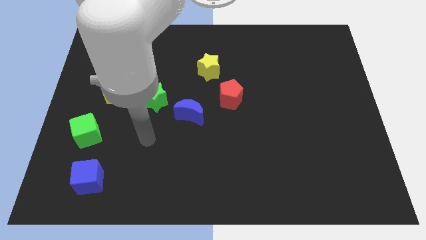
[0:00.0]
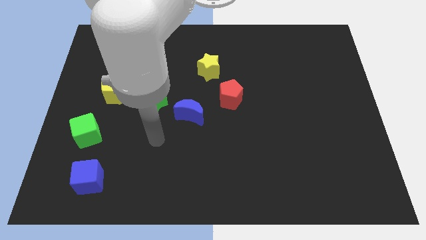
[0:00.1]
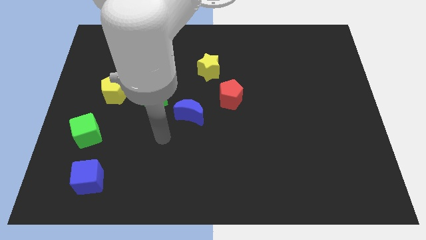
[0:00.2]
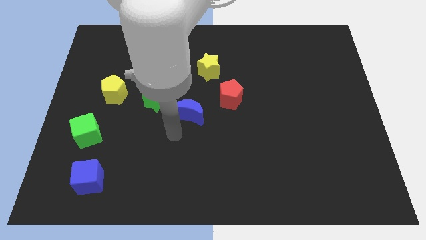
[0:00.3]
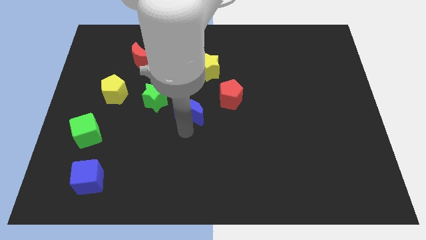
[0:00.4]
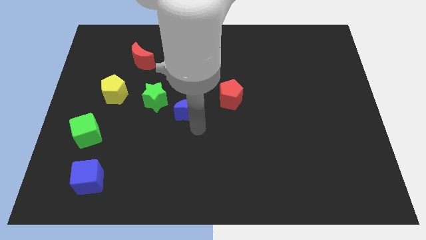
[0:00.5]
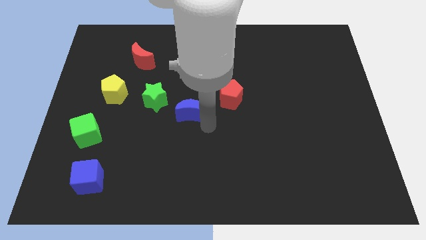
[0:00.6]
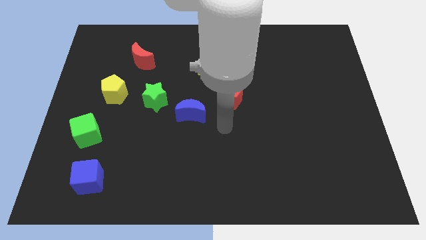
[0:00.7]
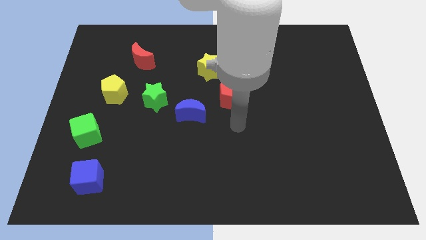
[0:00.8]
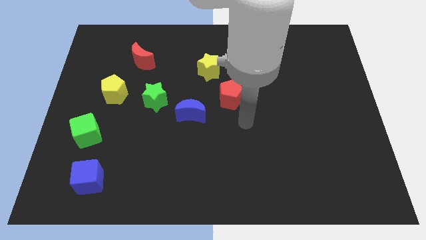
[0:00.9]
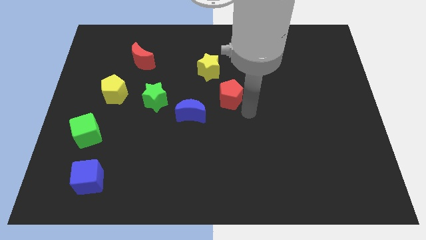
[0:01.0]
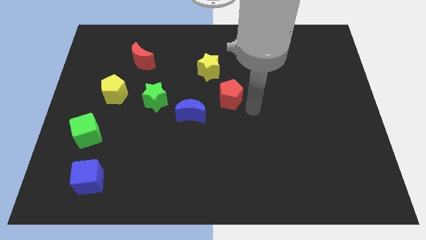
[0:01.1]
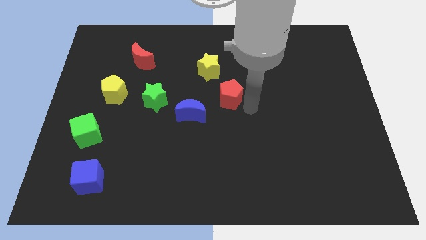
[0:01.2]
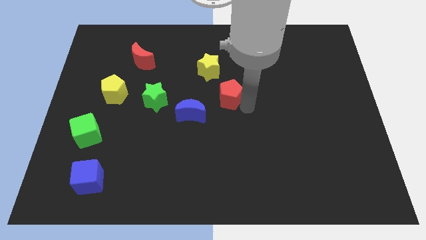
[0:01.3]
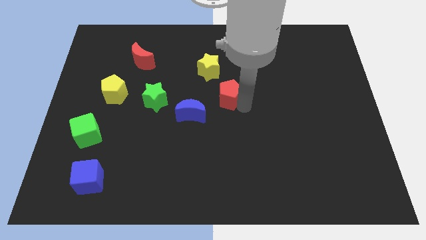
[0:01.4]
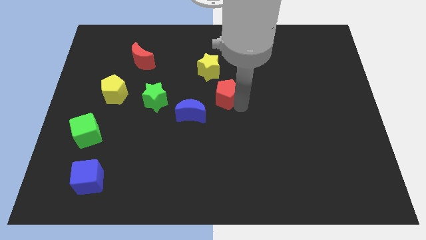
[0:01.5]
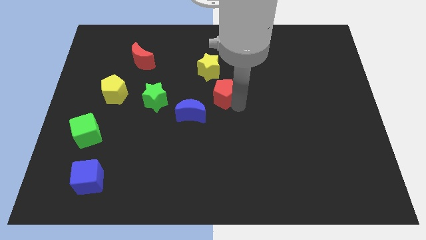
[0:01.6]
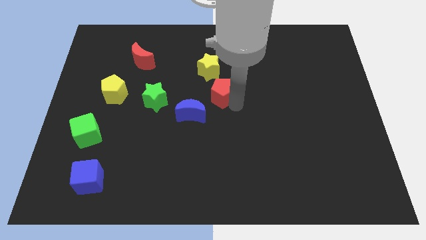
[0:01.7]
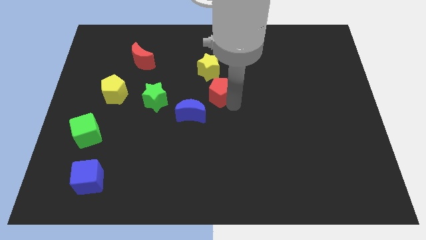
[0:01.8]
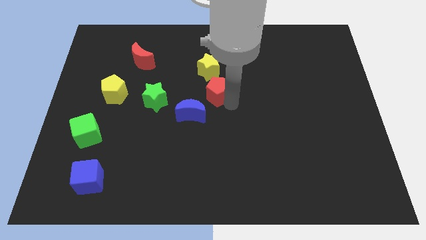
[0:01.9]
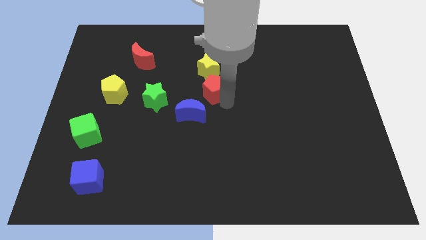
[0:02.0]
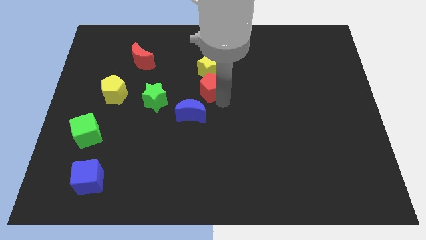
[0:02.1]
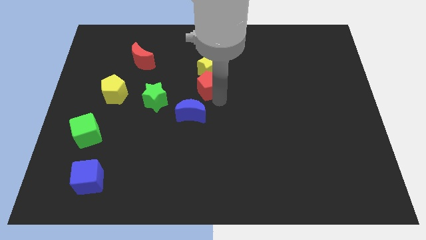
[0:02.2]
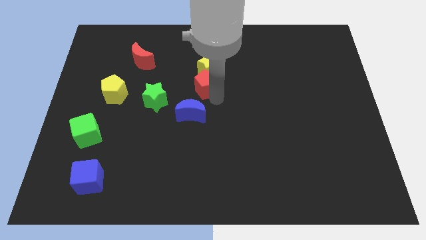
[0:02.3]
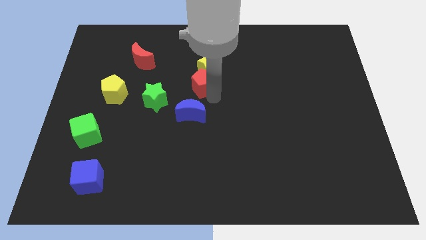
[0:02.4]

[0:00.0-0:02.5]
slide the red pentagon a bit diagonally upwards and left

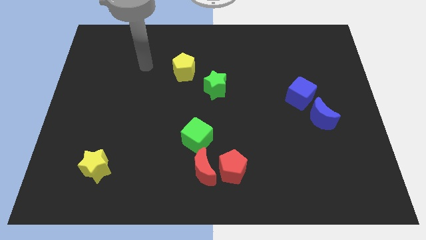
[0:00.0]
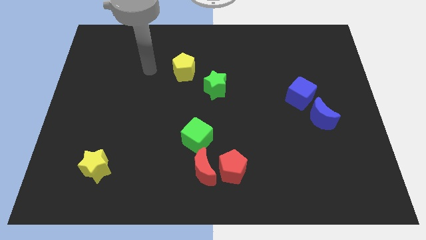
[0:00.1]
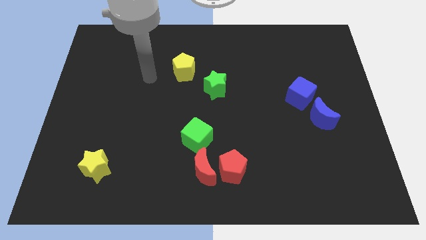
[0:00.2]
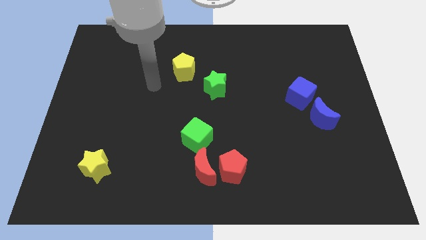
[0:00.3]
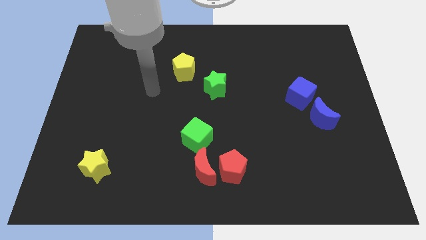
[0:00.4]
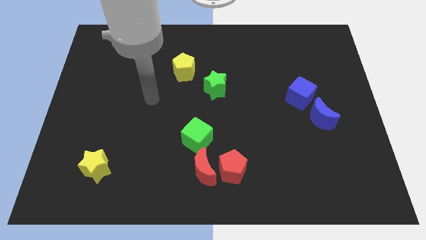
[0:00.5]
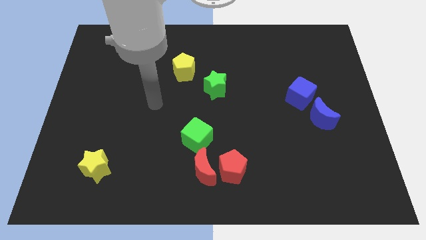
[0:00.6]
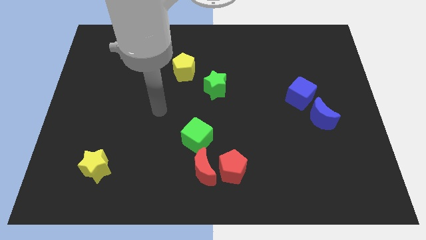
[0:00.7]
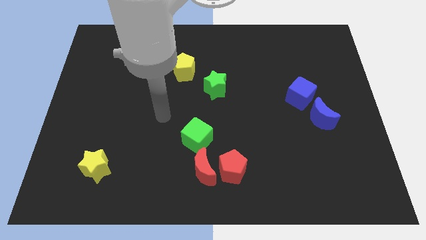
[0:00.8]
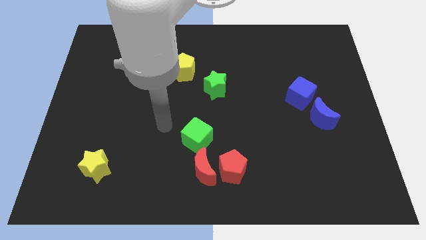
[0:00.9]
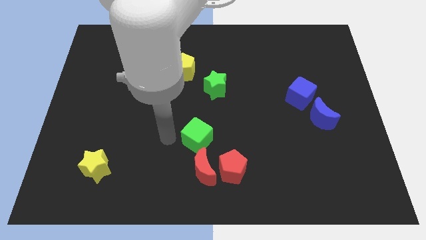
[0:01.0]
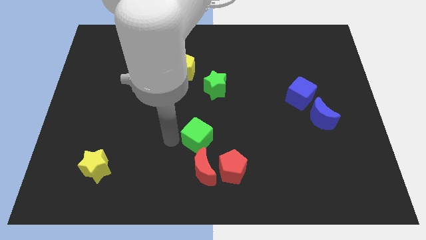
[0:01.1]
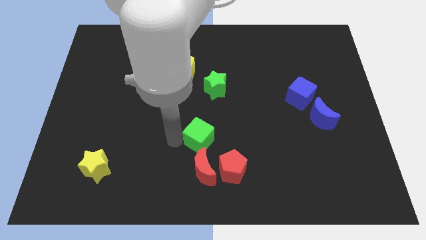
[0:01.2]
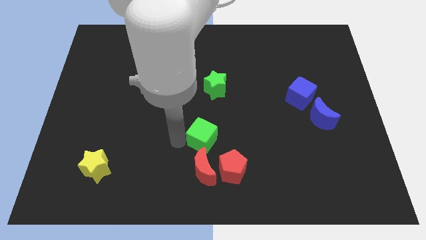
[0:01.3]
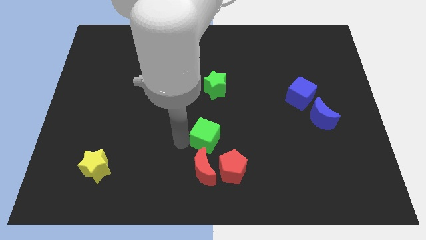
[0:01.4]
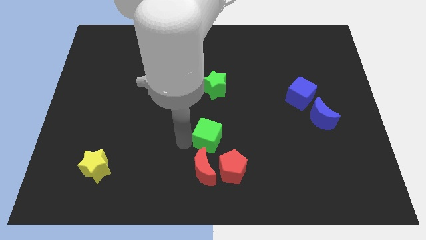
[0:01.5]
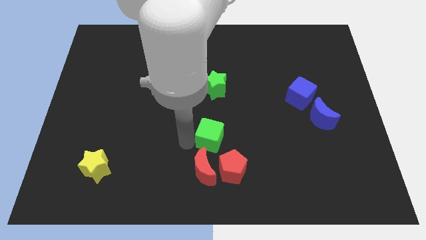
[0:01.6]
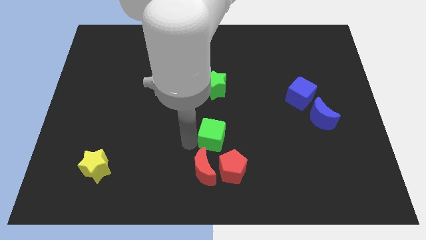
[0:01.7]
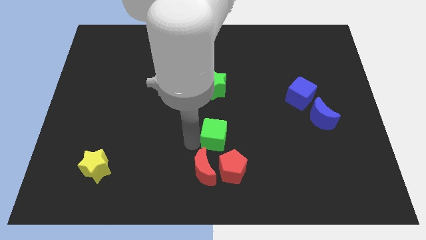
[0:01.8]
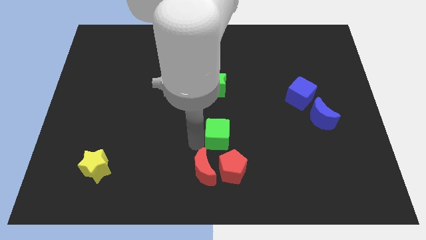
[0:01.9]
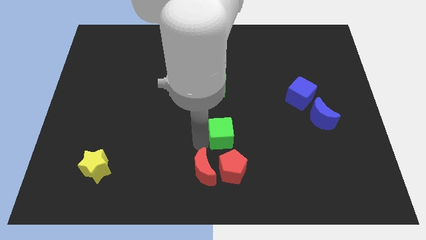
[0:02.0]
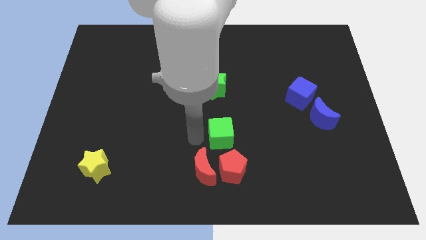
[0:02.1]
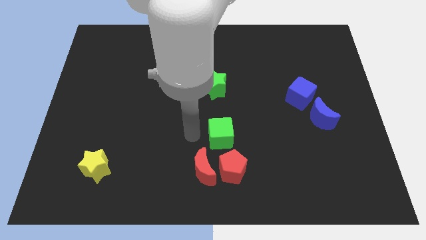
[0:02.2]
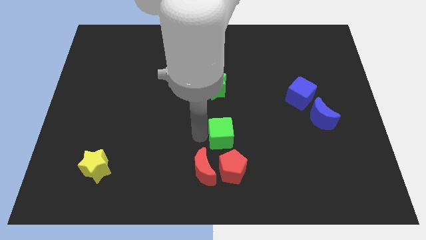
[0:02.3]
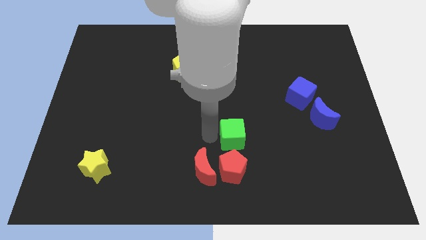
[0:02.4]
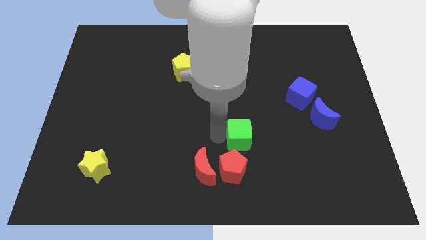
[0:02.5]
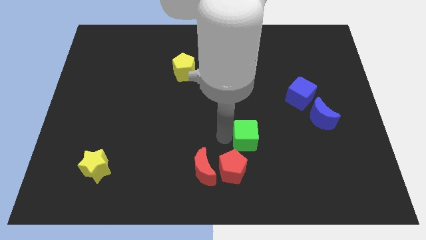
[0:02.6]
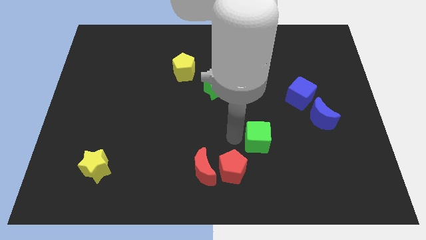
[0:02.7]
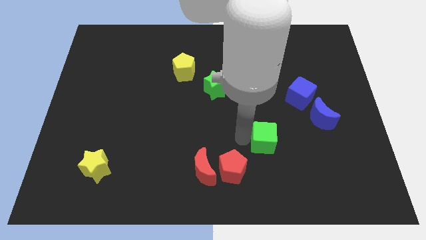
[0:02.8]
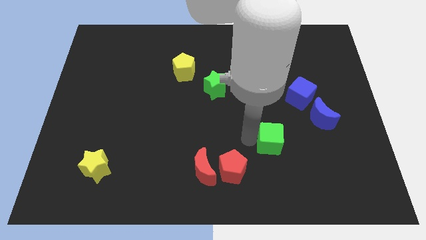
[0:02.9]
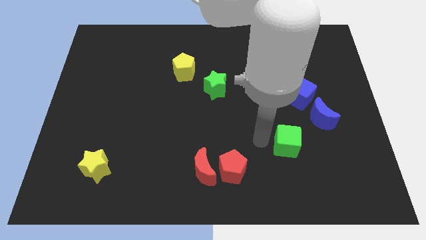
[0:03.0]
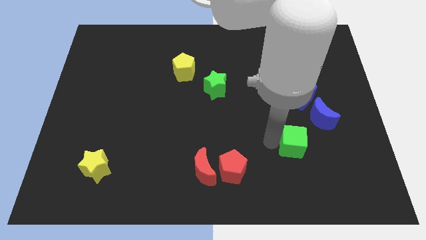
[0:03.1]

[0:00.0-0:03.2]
move the green cube right

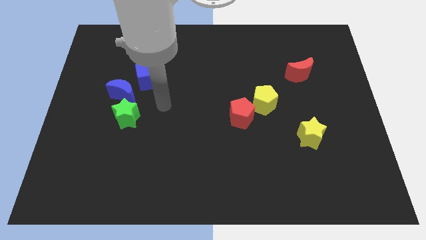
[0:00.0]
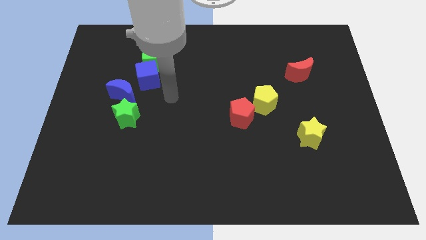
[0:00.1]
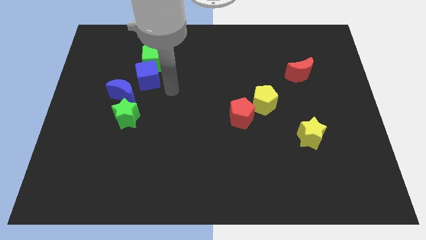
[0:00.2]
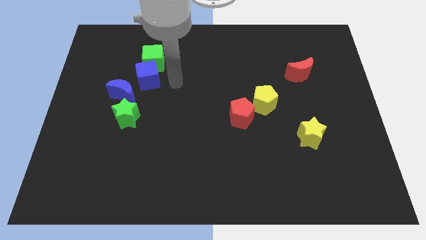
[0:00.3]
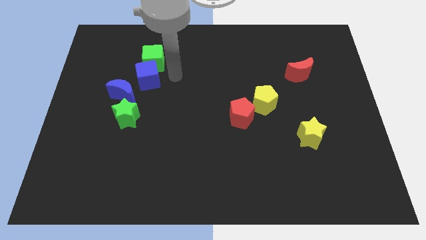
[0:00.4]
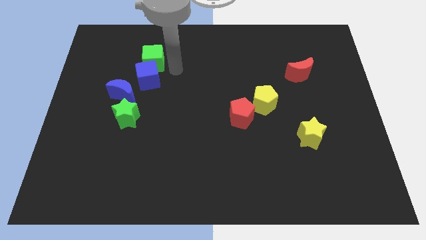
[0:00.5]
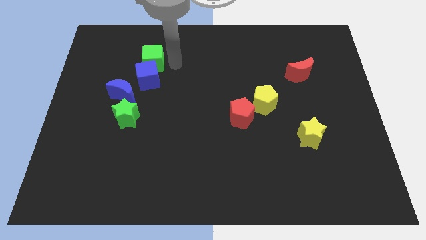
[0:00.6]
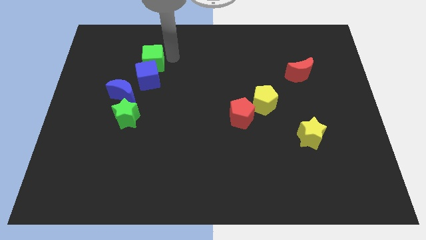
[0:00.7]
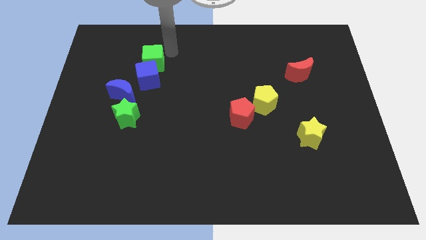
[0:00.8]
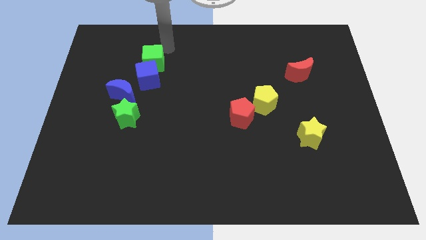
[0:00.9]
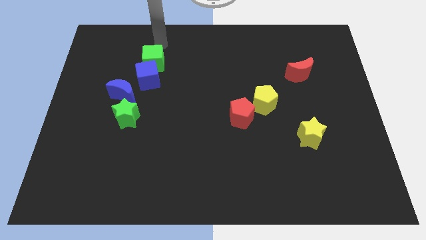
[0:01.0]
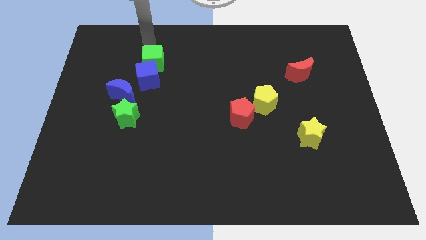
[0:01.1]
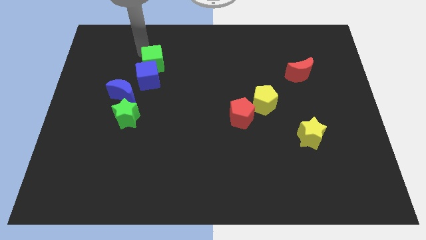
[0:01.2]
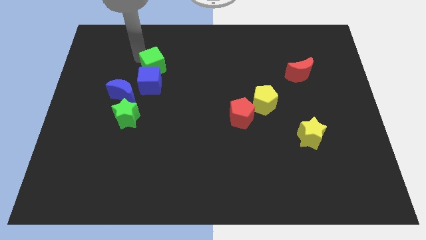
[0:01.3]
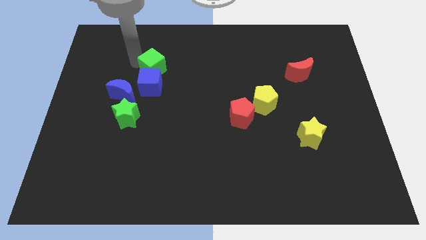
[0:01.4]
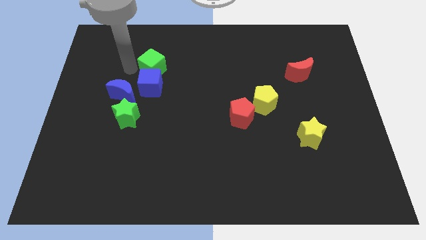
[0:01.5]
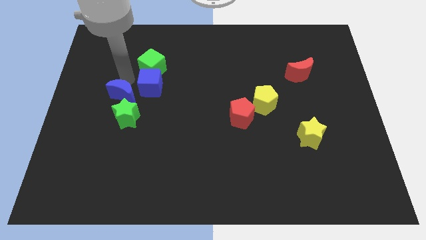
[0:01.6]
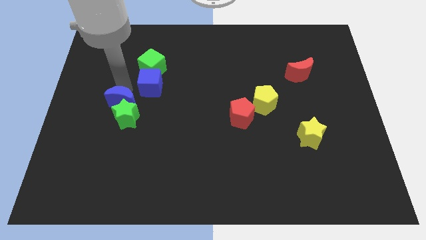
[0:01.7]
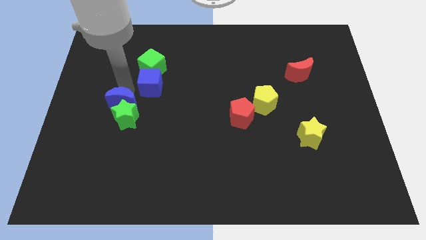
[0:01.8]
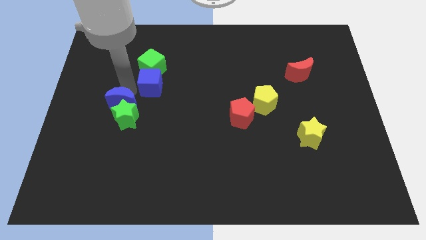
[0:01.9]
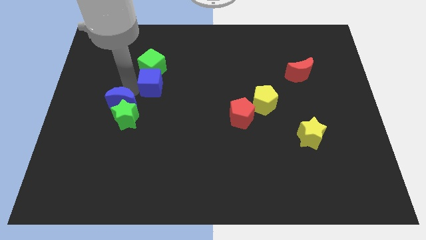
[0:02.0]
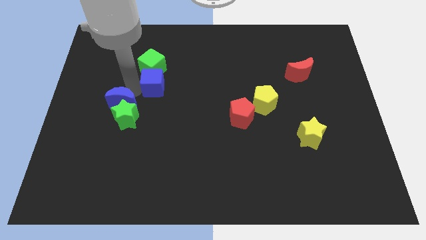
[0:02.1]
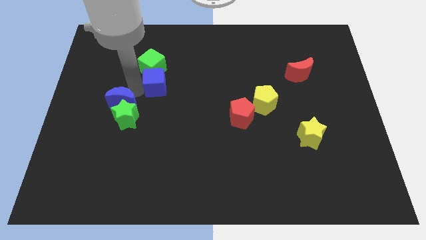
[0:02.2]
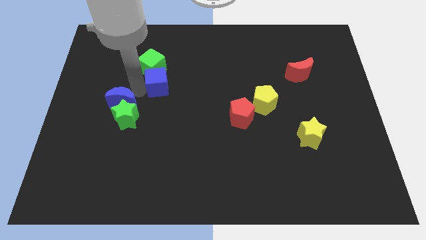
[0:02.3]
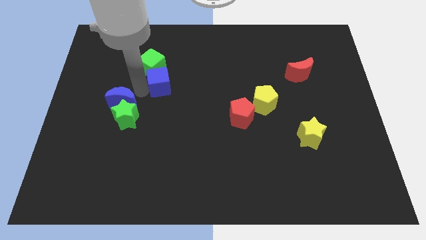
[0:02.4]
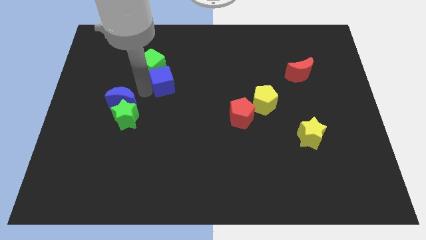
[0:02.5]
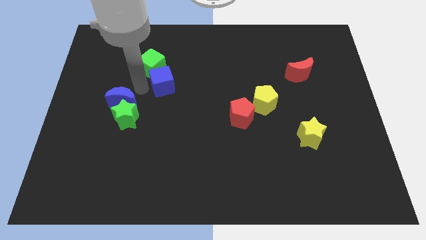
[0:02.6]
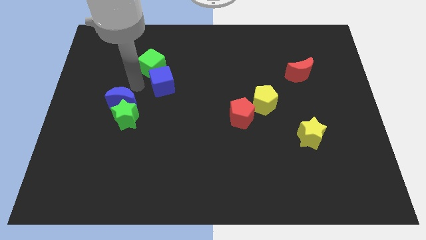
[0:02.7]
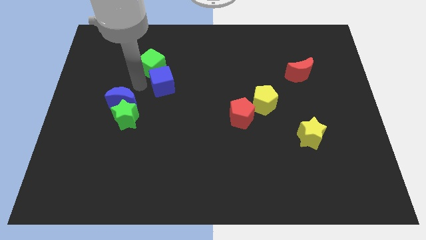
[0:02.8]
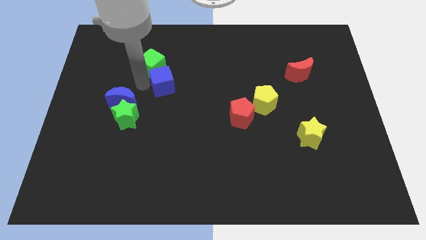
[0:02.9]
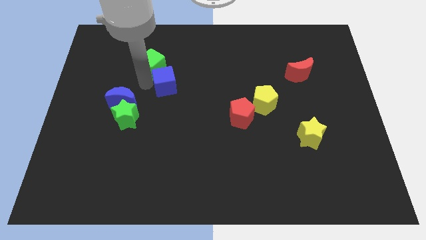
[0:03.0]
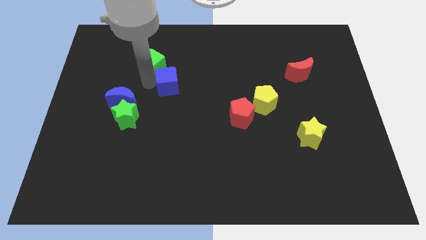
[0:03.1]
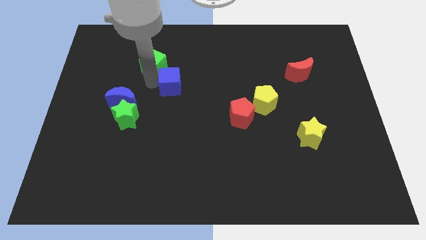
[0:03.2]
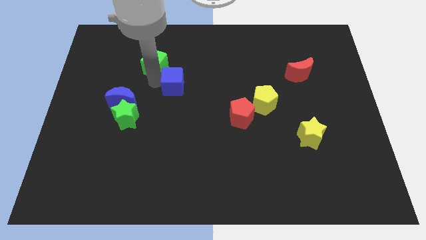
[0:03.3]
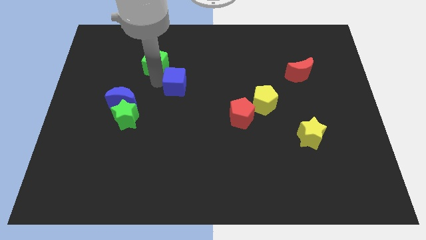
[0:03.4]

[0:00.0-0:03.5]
slightly push the blue cube right
